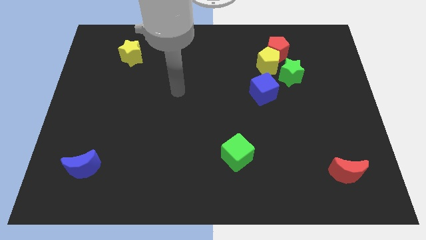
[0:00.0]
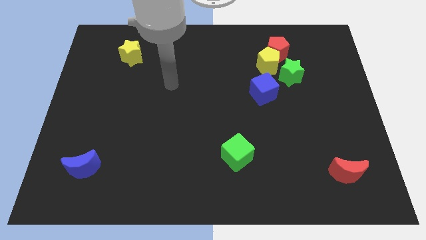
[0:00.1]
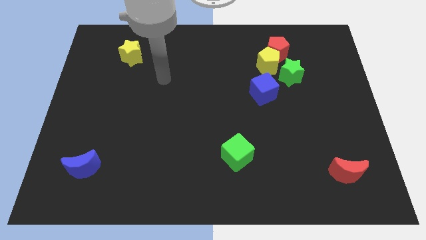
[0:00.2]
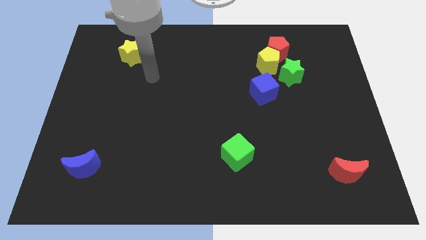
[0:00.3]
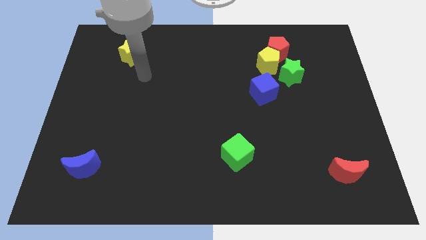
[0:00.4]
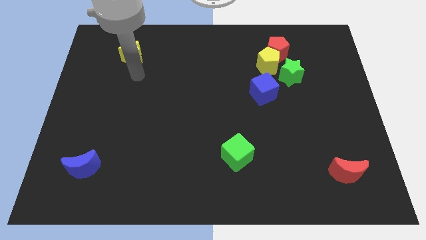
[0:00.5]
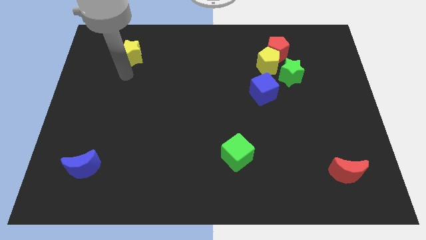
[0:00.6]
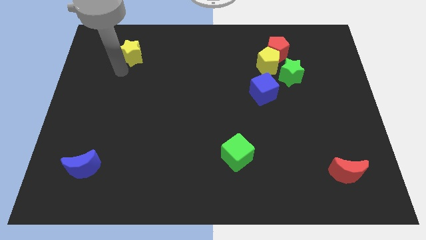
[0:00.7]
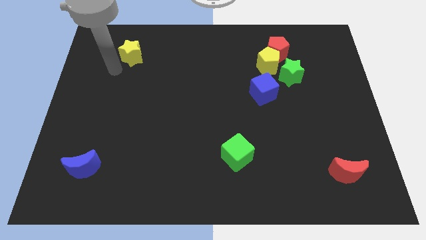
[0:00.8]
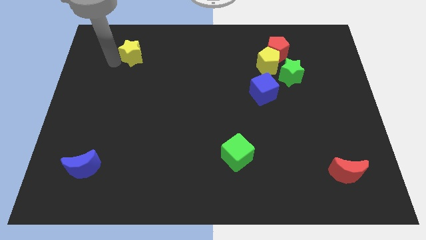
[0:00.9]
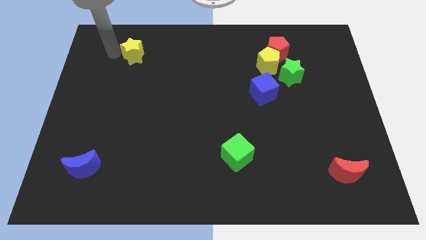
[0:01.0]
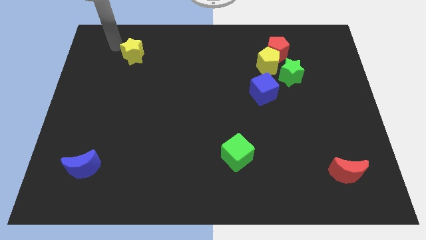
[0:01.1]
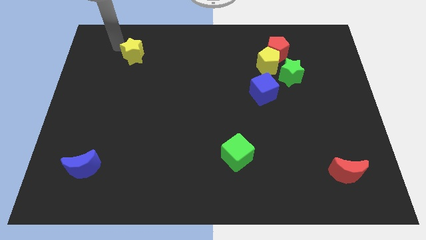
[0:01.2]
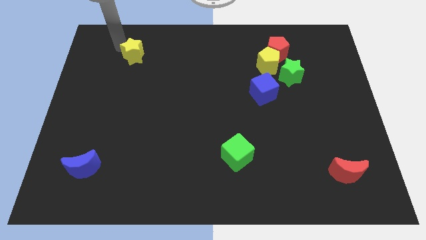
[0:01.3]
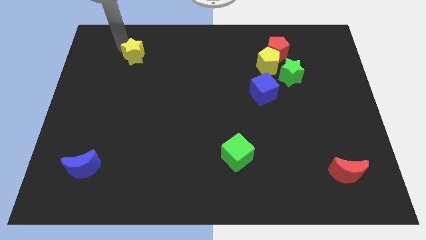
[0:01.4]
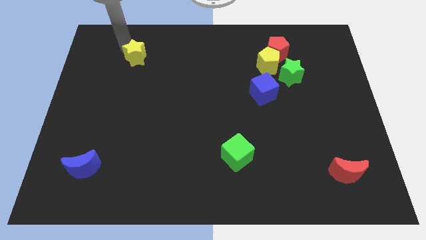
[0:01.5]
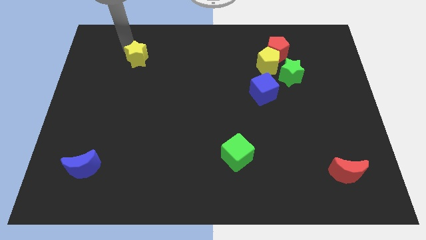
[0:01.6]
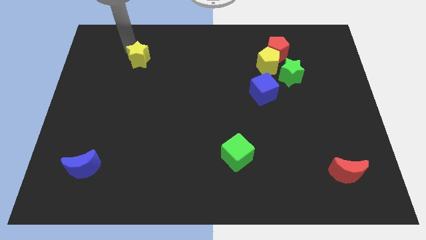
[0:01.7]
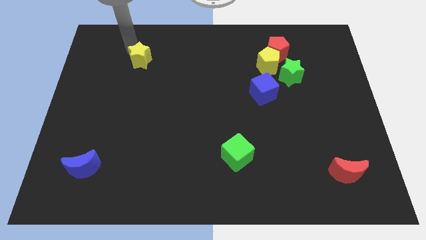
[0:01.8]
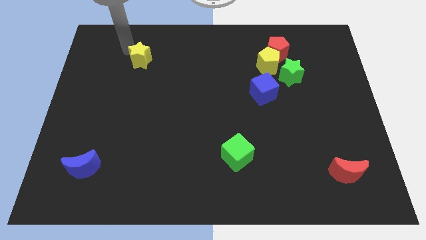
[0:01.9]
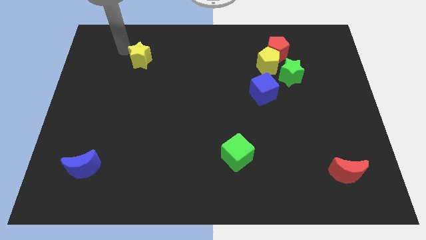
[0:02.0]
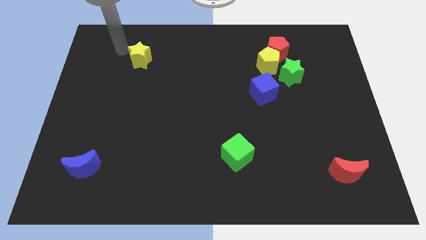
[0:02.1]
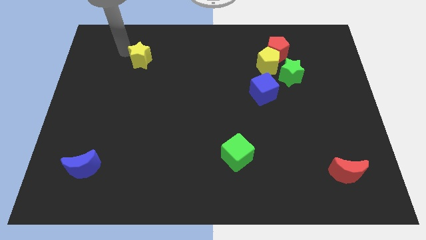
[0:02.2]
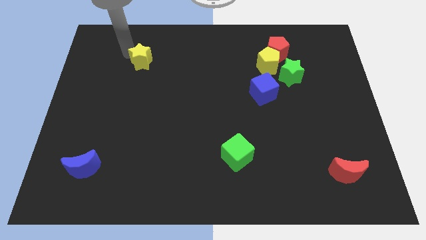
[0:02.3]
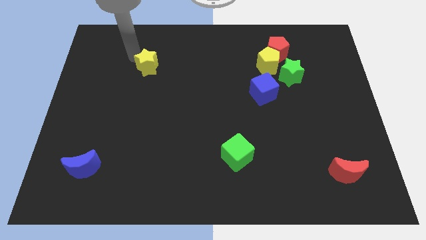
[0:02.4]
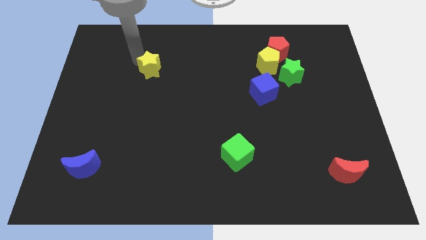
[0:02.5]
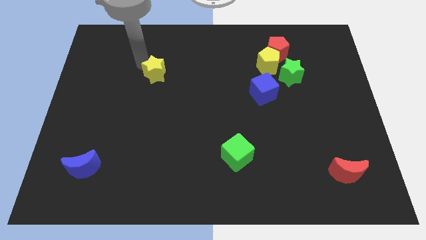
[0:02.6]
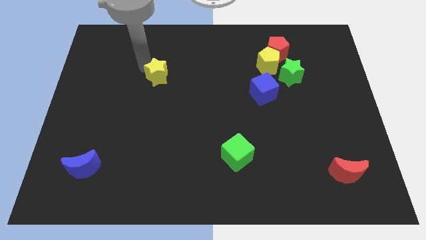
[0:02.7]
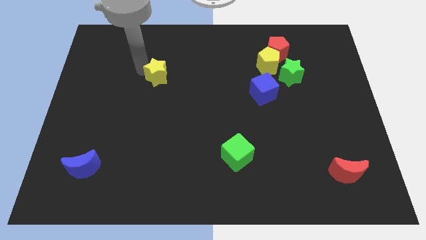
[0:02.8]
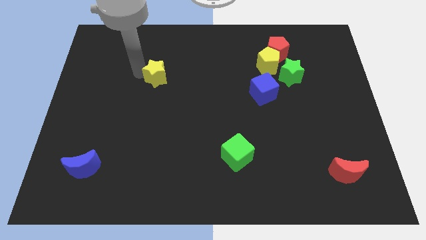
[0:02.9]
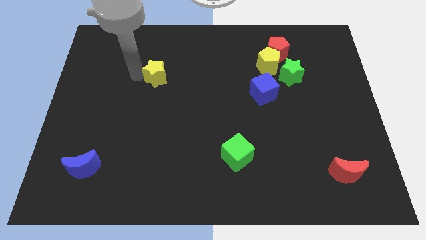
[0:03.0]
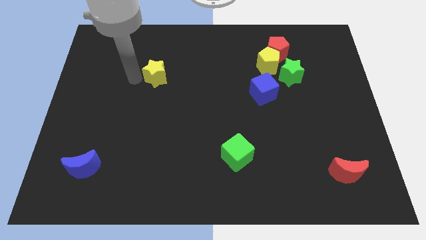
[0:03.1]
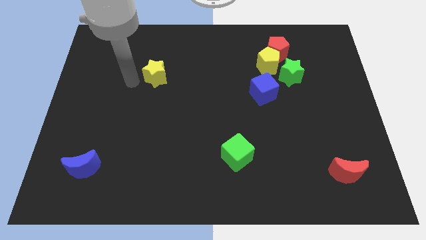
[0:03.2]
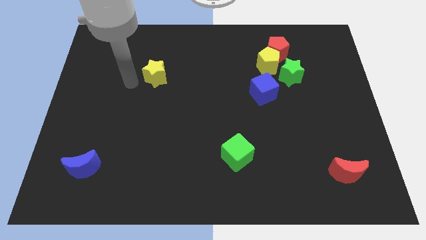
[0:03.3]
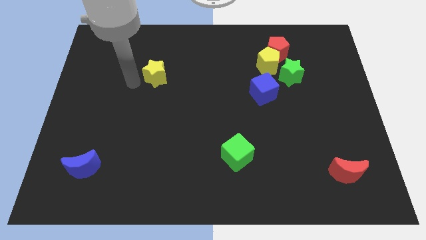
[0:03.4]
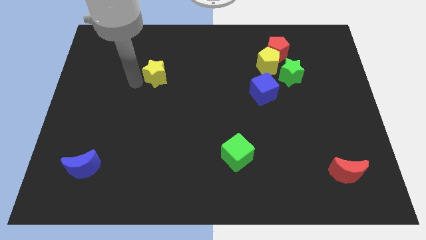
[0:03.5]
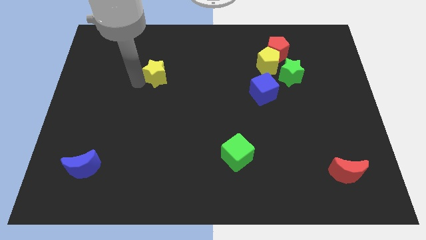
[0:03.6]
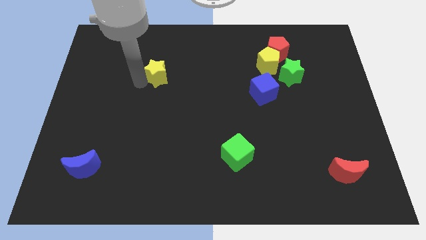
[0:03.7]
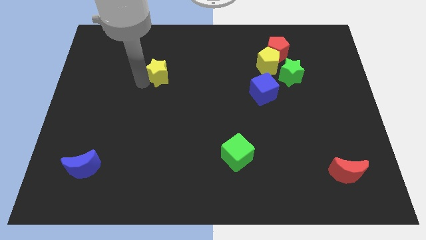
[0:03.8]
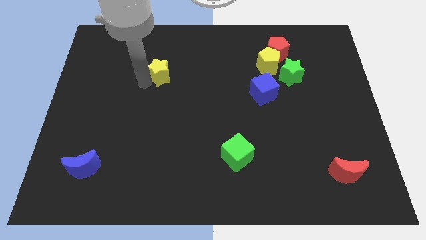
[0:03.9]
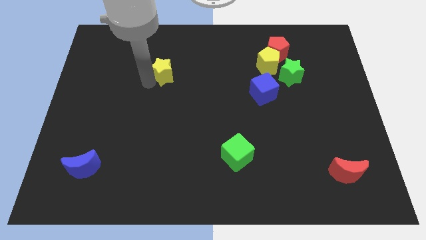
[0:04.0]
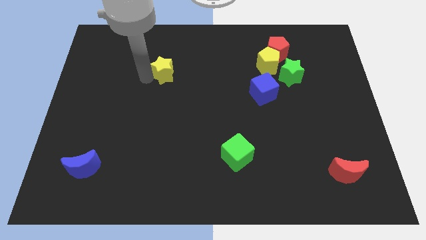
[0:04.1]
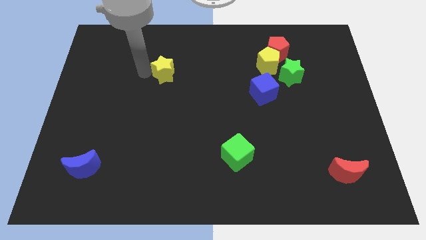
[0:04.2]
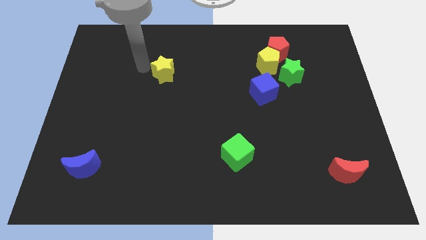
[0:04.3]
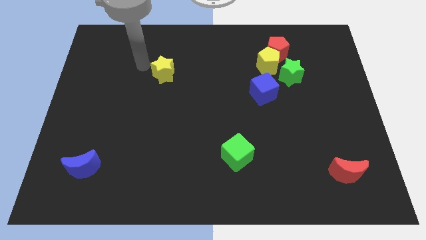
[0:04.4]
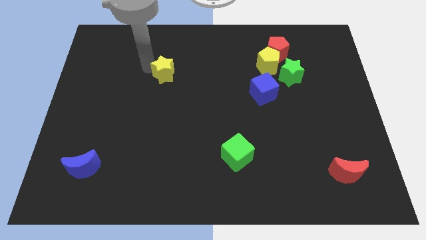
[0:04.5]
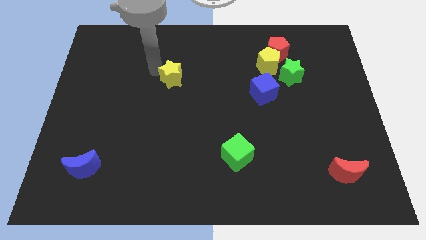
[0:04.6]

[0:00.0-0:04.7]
move the yellow star to the center

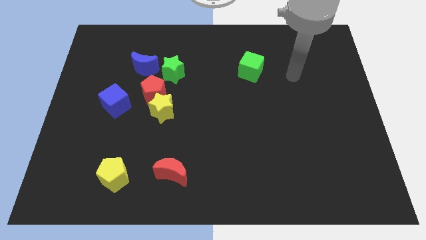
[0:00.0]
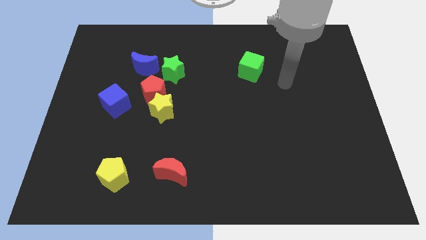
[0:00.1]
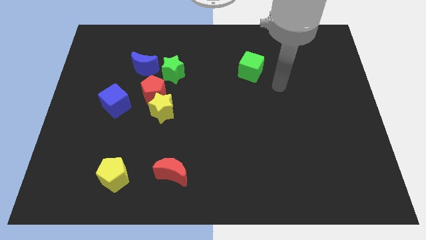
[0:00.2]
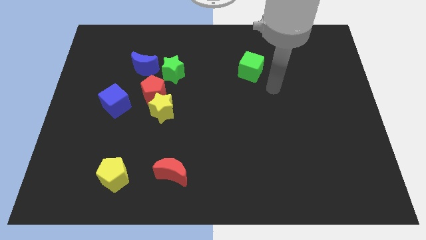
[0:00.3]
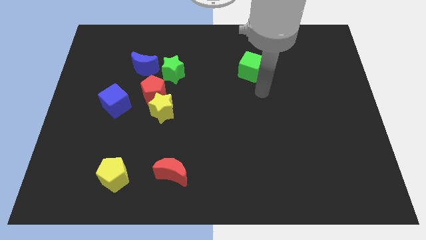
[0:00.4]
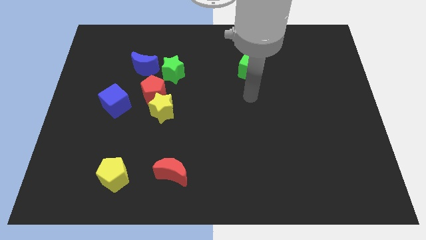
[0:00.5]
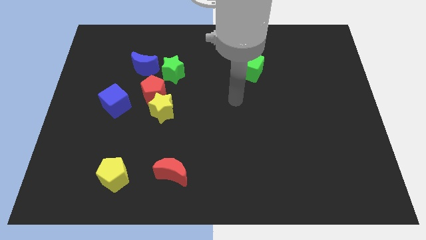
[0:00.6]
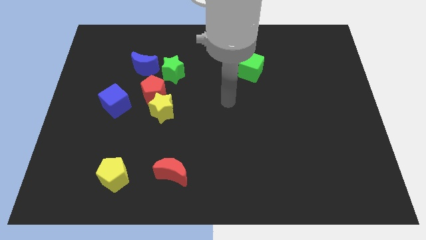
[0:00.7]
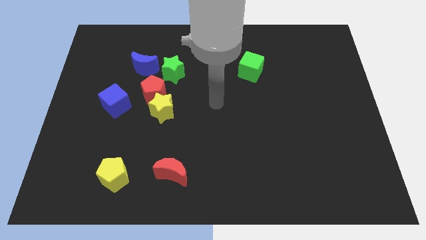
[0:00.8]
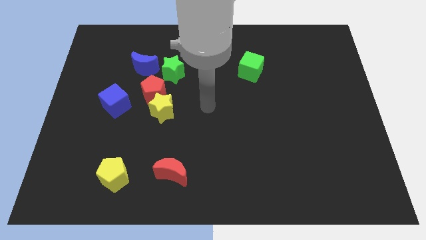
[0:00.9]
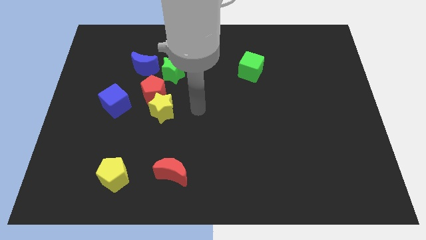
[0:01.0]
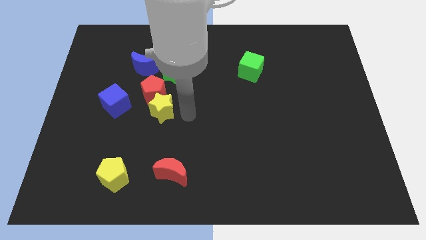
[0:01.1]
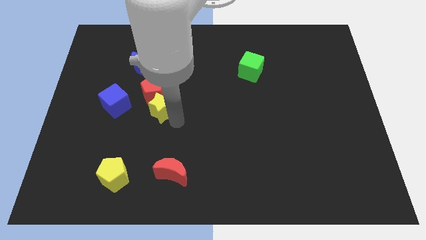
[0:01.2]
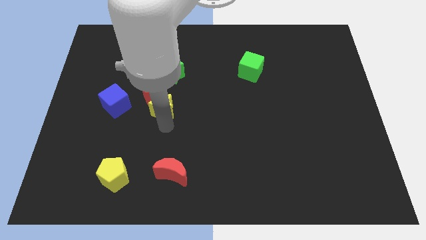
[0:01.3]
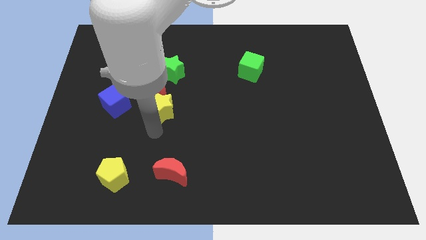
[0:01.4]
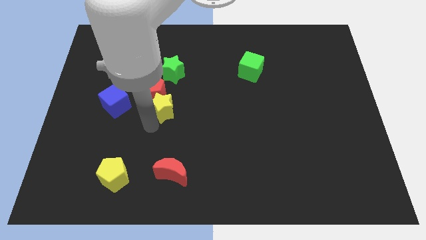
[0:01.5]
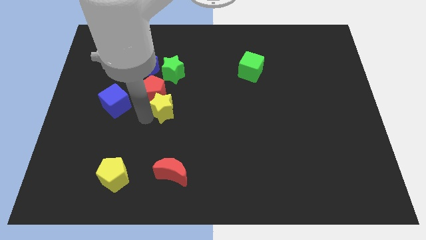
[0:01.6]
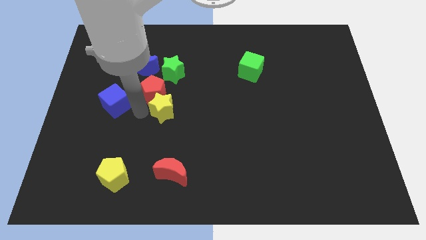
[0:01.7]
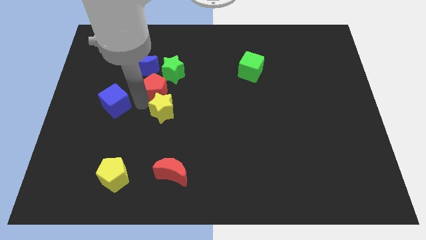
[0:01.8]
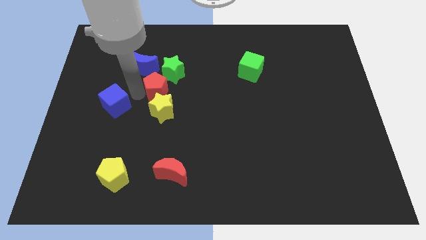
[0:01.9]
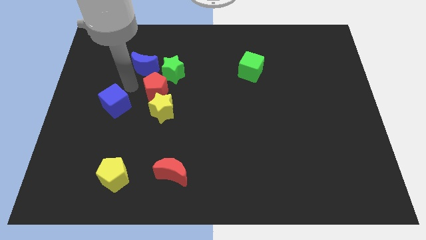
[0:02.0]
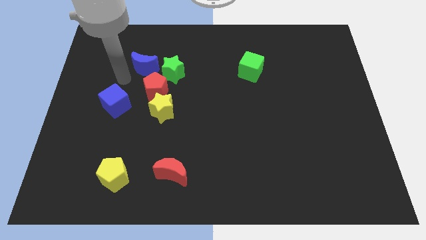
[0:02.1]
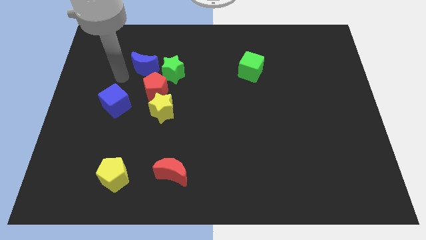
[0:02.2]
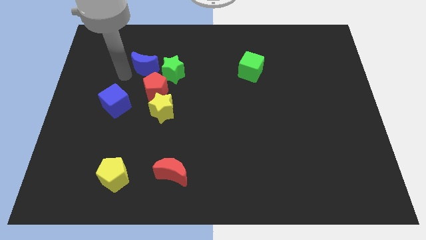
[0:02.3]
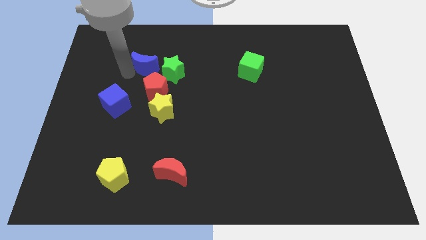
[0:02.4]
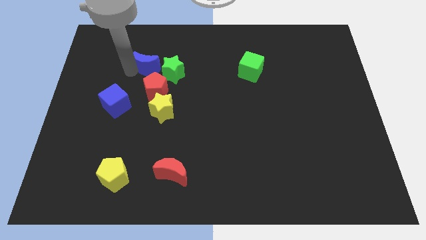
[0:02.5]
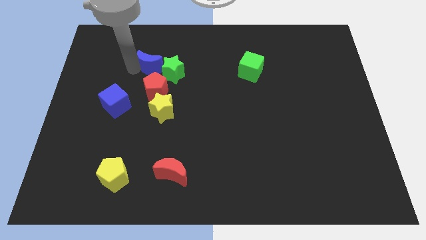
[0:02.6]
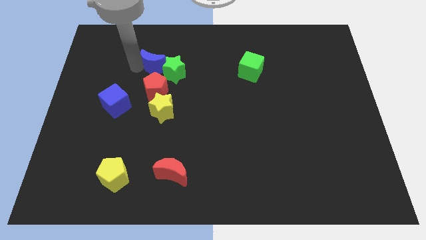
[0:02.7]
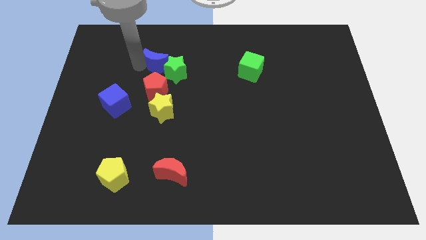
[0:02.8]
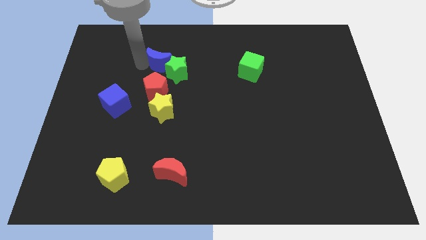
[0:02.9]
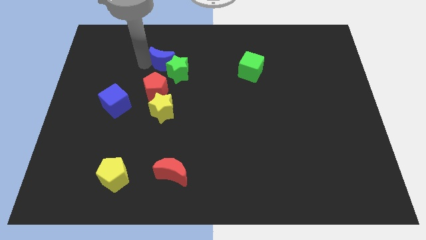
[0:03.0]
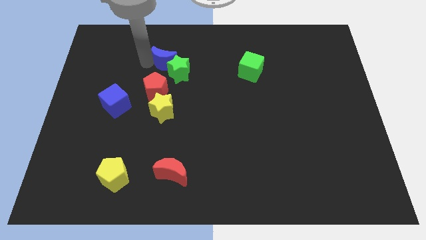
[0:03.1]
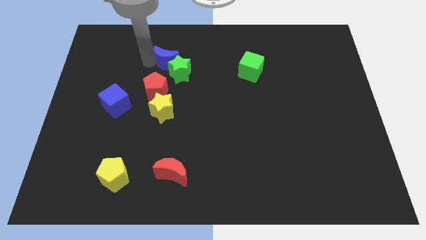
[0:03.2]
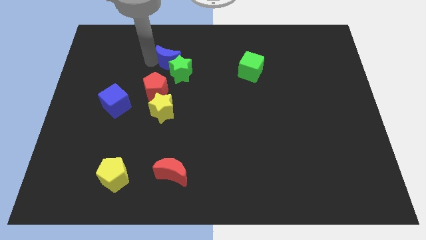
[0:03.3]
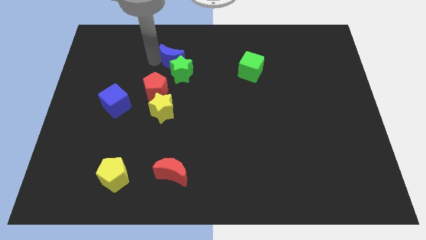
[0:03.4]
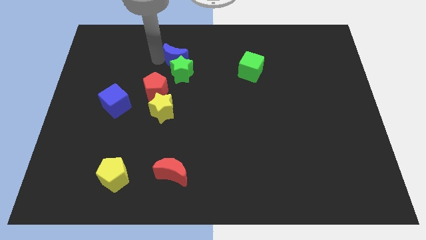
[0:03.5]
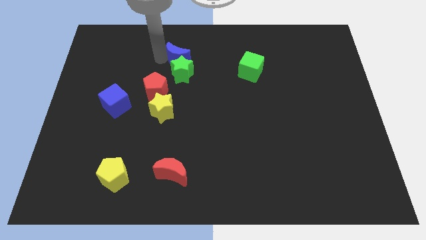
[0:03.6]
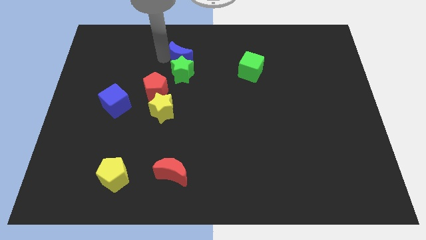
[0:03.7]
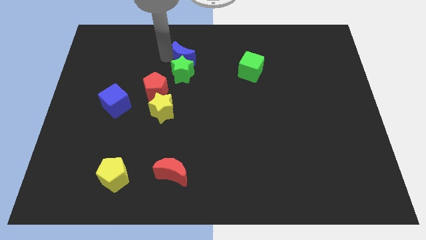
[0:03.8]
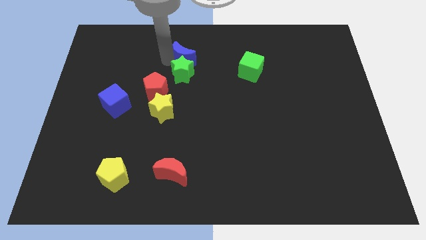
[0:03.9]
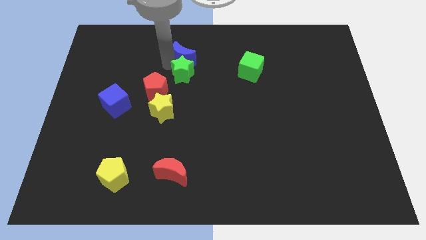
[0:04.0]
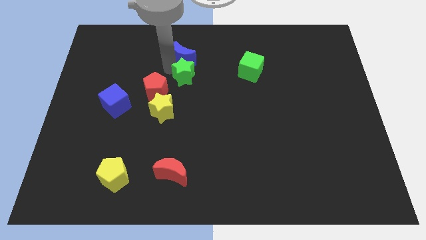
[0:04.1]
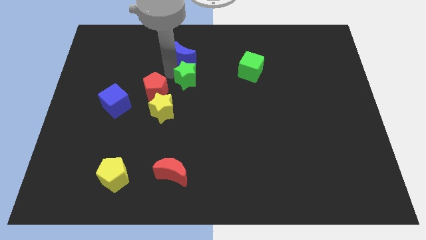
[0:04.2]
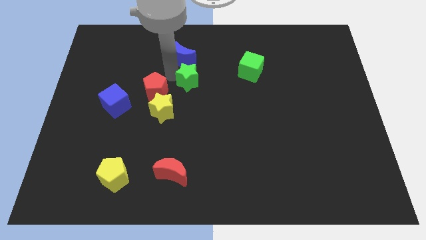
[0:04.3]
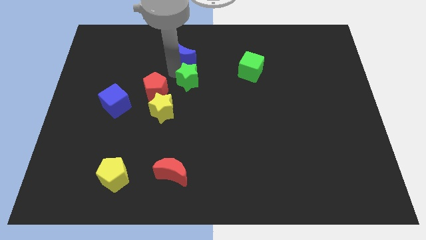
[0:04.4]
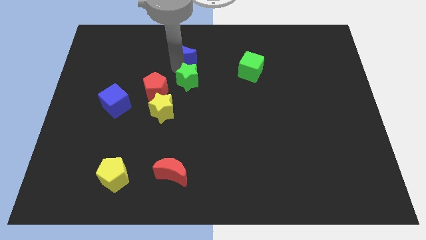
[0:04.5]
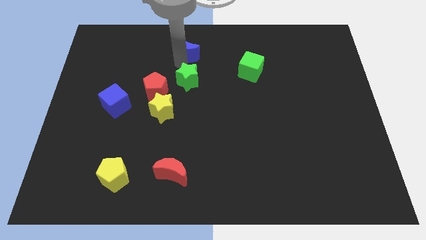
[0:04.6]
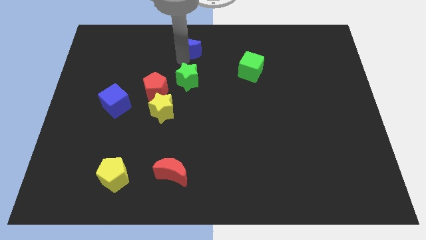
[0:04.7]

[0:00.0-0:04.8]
move the blue moon to the top side
